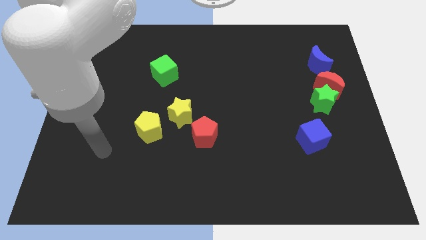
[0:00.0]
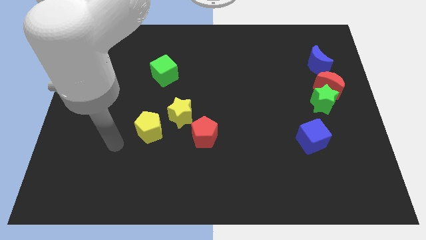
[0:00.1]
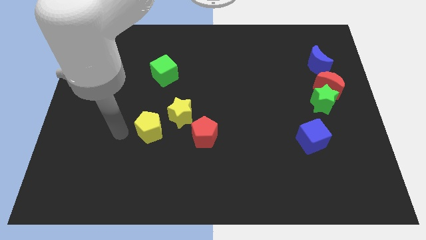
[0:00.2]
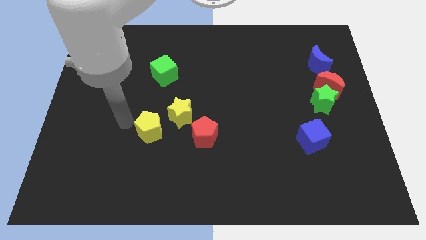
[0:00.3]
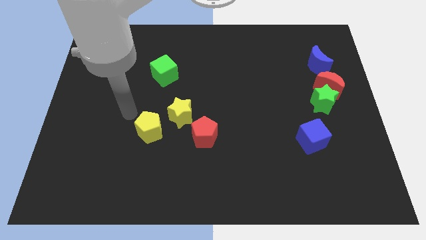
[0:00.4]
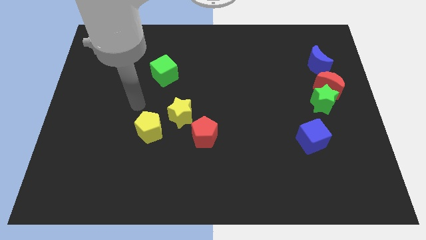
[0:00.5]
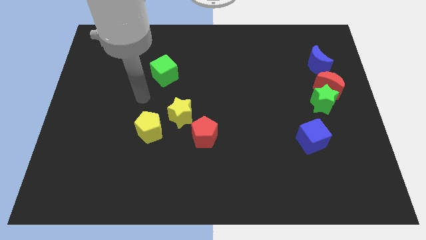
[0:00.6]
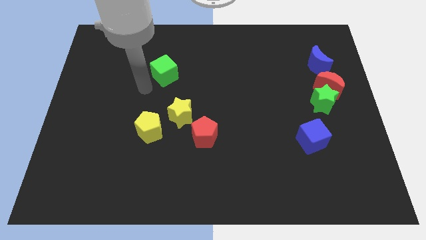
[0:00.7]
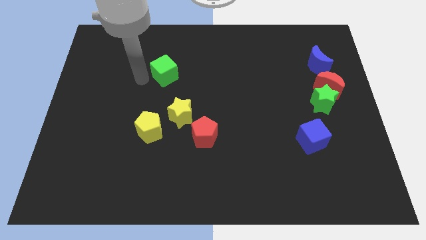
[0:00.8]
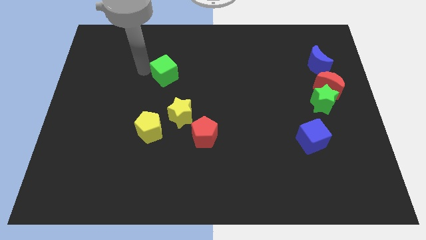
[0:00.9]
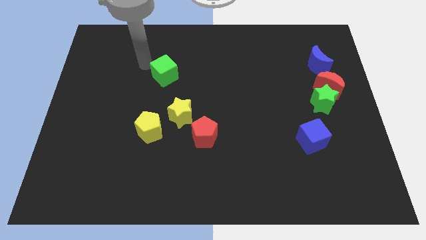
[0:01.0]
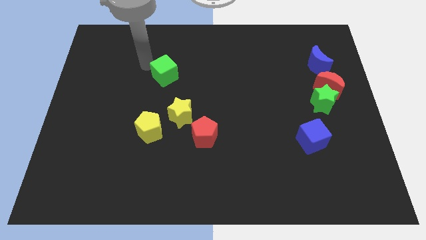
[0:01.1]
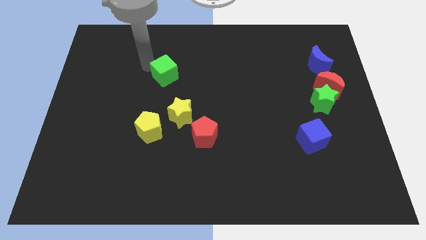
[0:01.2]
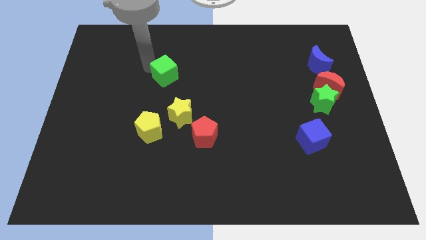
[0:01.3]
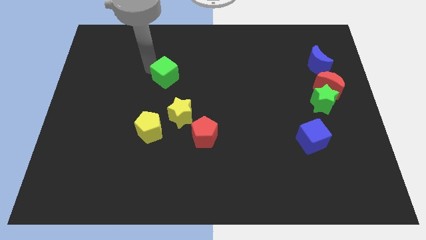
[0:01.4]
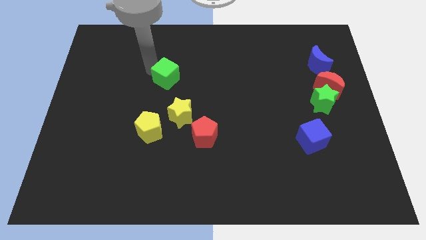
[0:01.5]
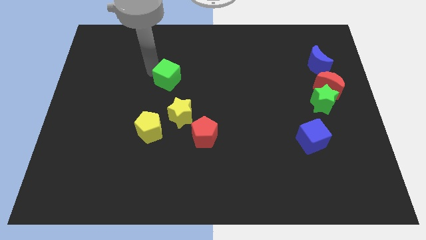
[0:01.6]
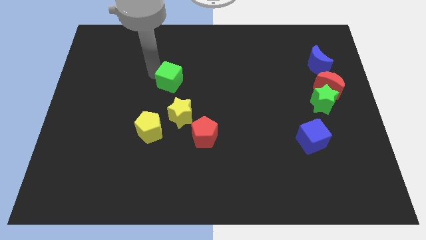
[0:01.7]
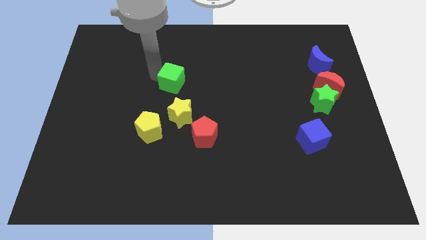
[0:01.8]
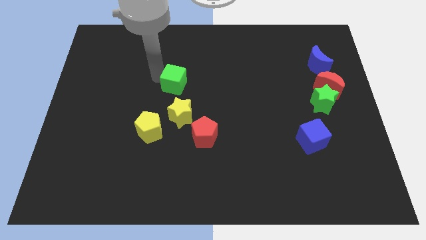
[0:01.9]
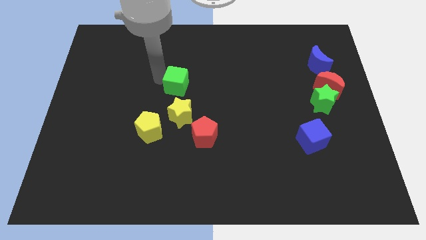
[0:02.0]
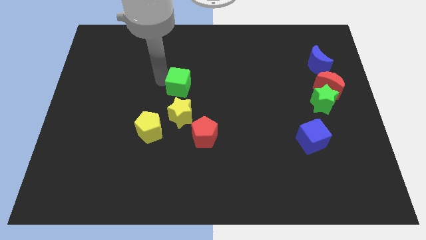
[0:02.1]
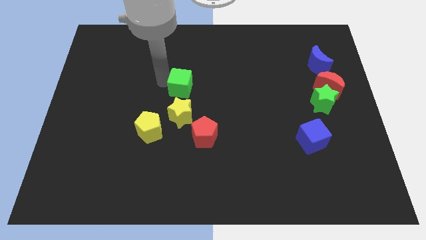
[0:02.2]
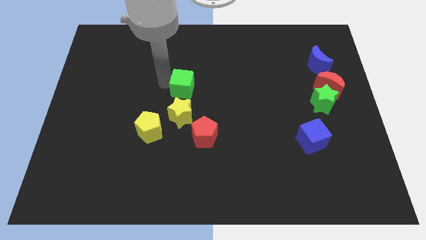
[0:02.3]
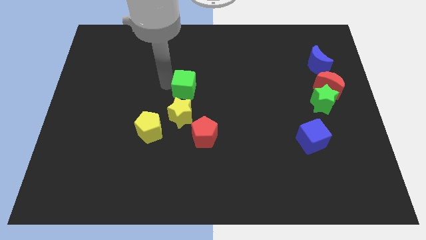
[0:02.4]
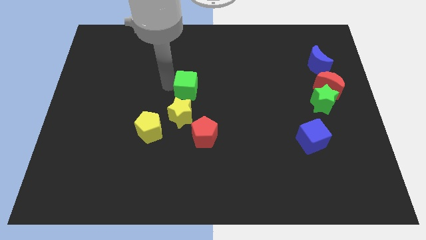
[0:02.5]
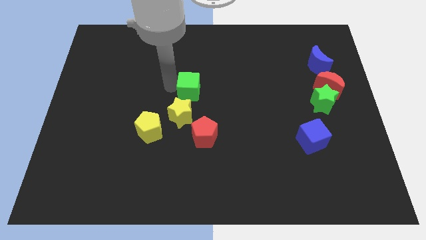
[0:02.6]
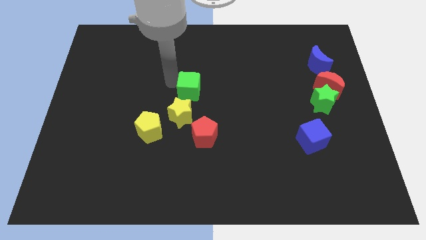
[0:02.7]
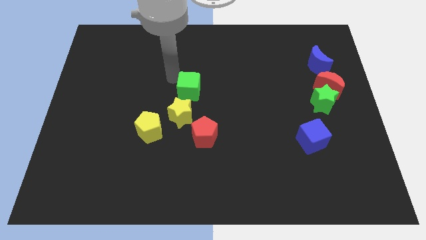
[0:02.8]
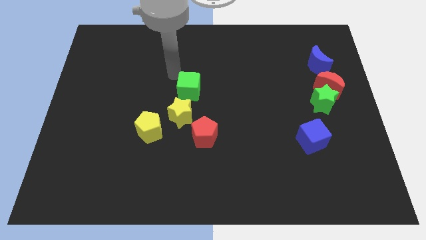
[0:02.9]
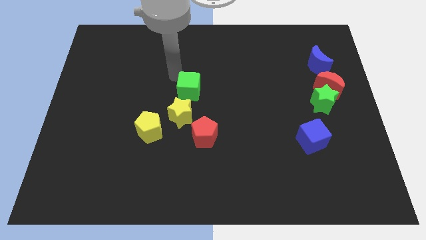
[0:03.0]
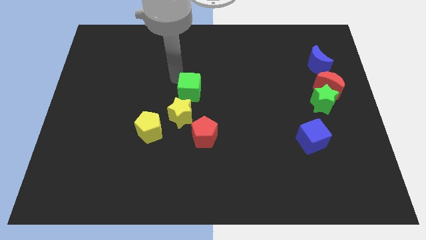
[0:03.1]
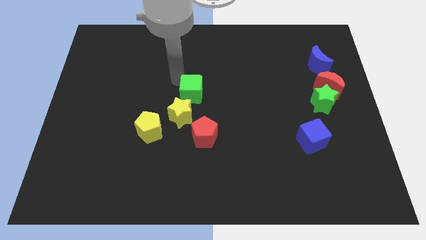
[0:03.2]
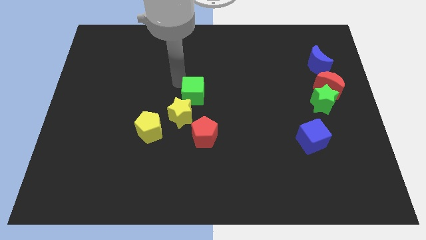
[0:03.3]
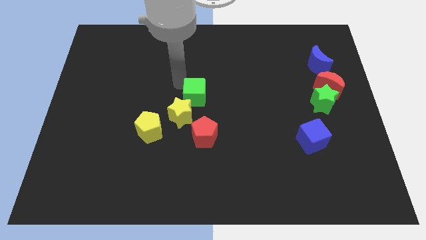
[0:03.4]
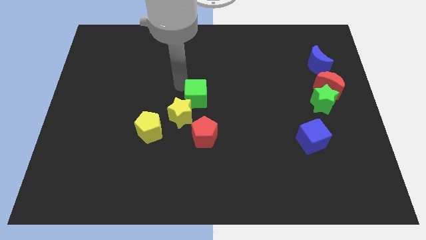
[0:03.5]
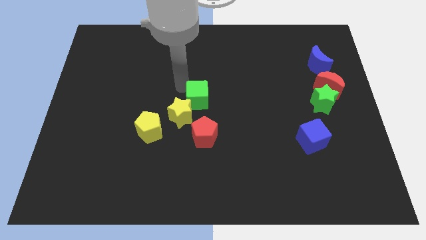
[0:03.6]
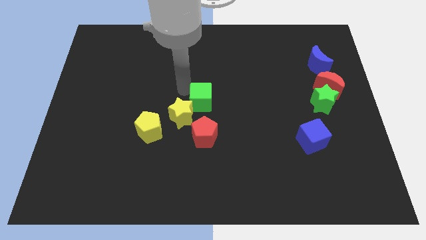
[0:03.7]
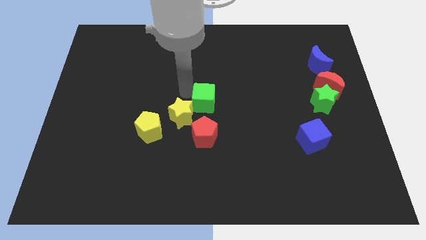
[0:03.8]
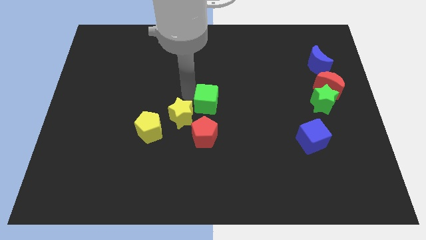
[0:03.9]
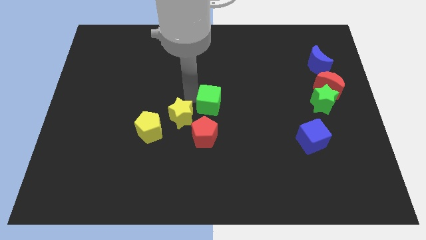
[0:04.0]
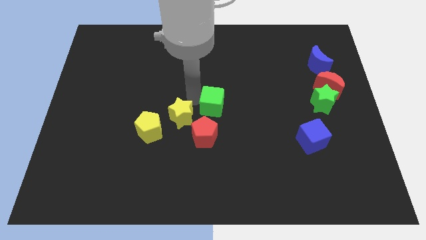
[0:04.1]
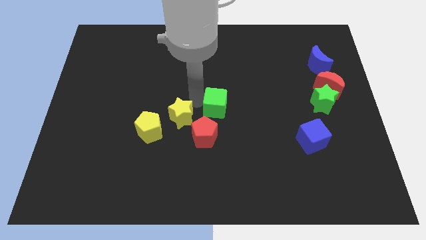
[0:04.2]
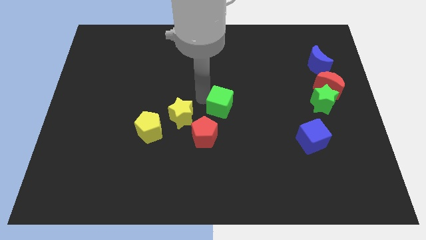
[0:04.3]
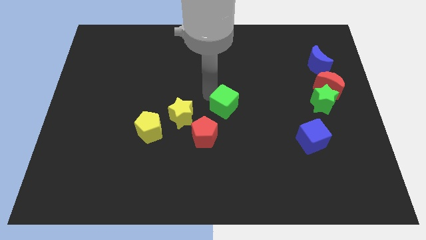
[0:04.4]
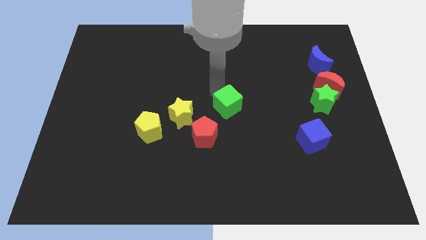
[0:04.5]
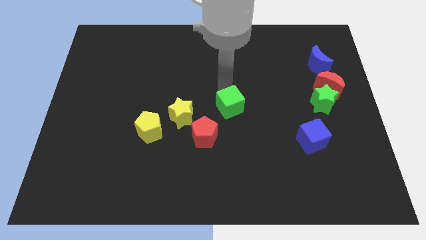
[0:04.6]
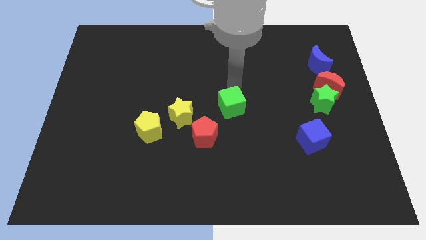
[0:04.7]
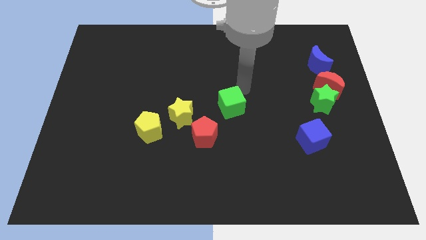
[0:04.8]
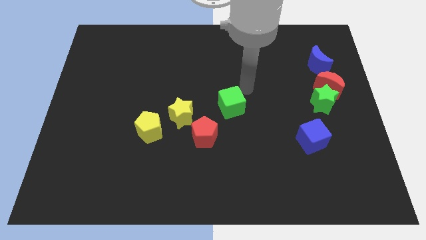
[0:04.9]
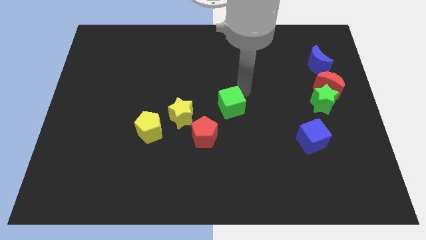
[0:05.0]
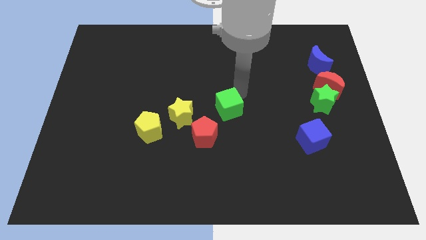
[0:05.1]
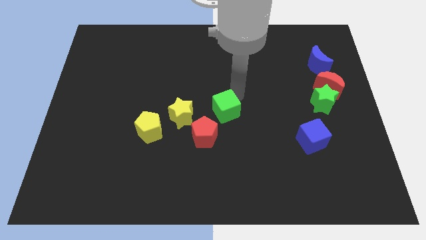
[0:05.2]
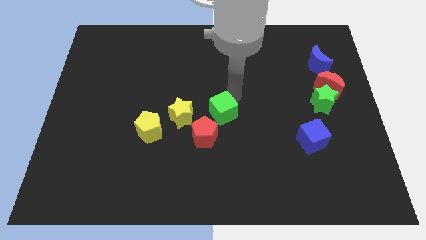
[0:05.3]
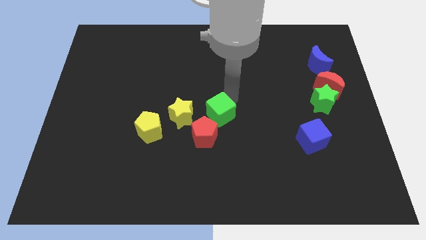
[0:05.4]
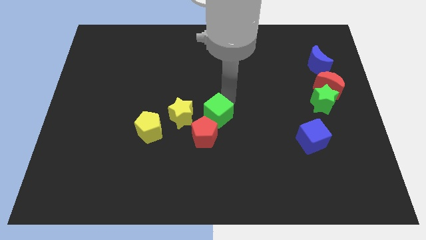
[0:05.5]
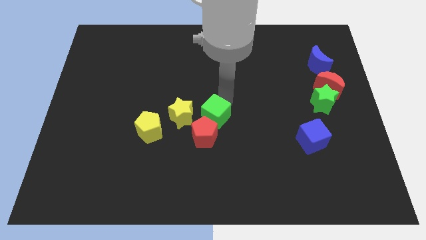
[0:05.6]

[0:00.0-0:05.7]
put the green cube towards the red pentagon

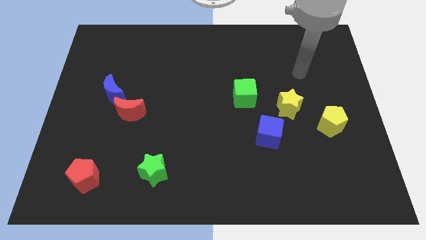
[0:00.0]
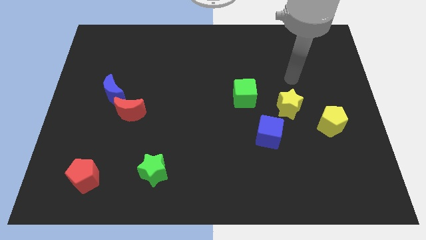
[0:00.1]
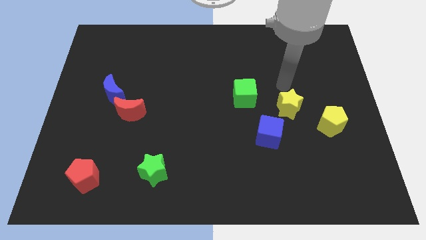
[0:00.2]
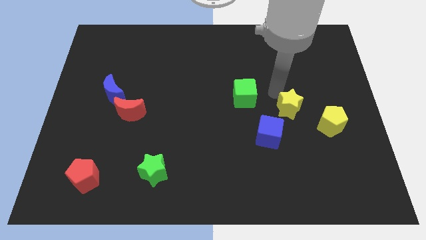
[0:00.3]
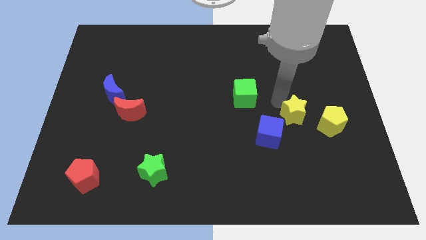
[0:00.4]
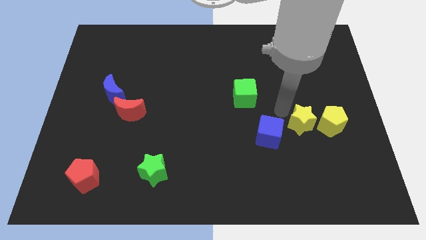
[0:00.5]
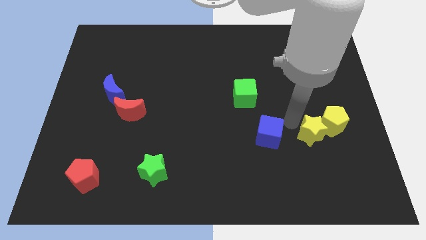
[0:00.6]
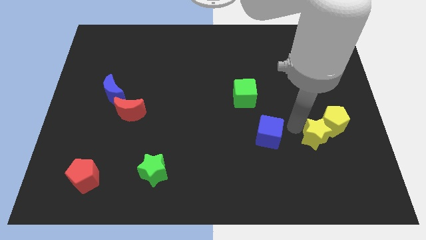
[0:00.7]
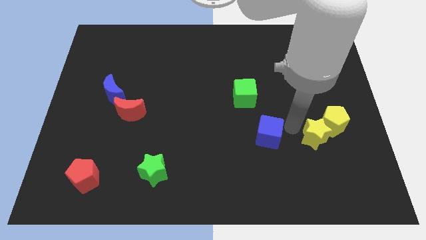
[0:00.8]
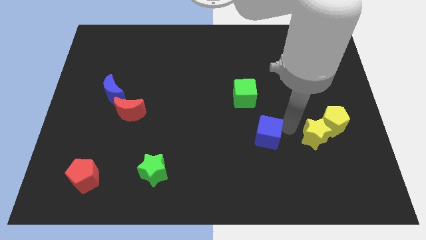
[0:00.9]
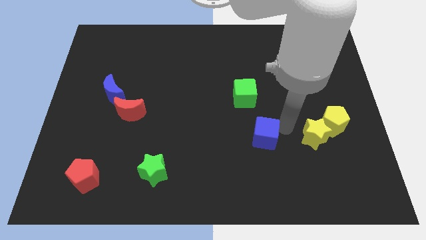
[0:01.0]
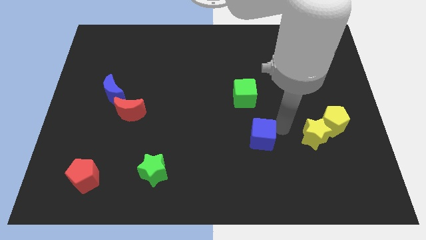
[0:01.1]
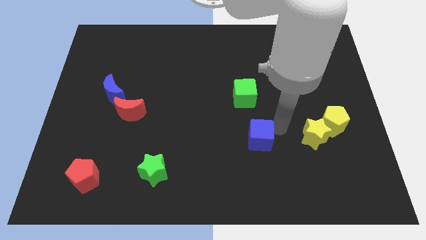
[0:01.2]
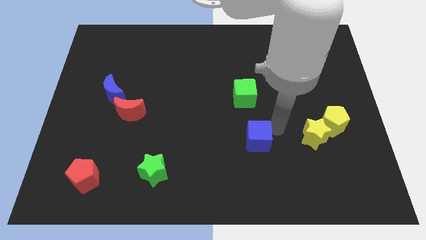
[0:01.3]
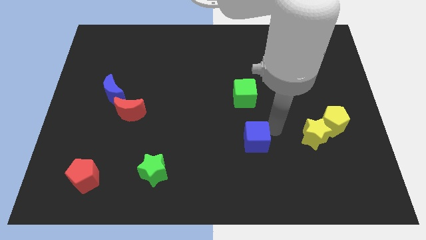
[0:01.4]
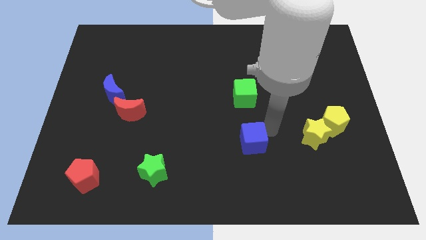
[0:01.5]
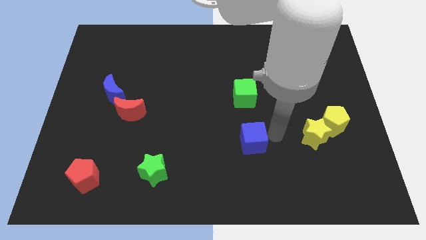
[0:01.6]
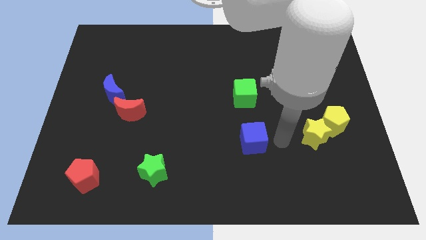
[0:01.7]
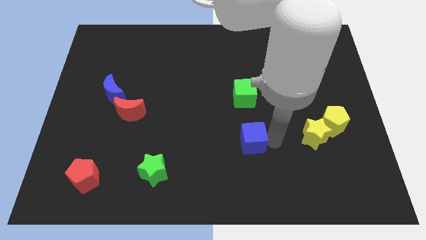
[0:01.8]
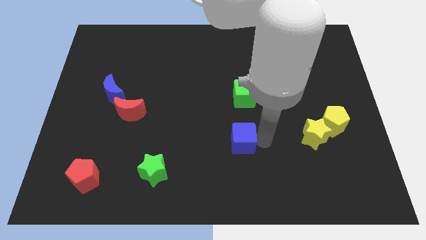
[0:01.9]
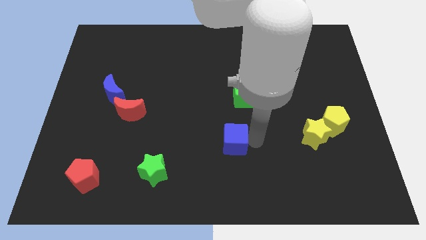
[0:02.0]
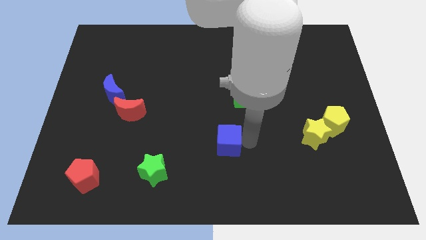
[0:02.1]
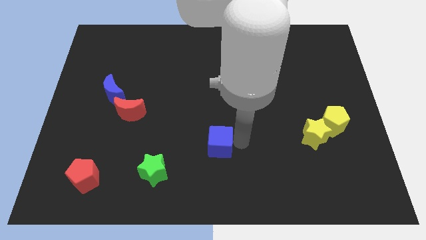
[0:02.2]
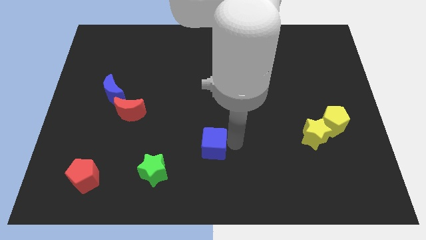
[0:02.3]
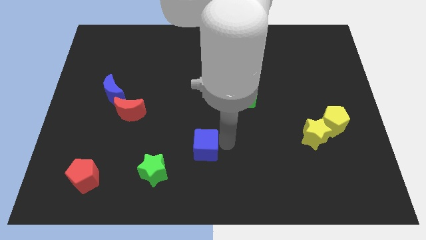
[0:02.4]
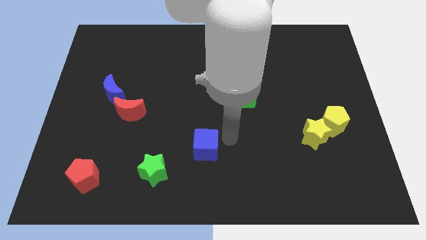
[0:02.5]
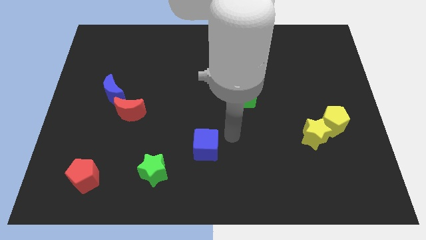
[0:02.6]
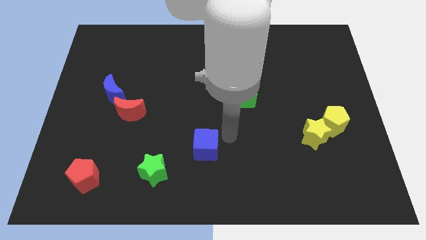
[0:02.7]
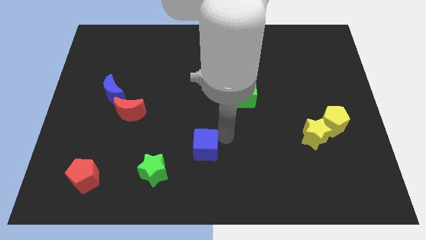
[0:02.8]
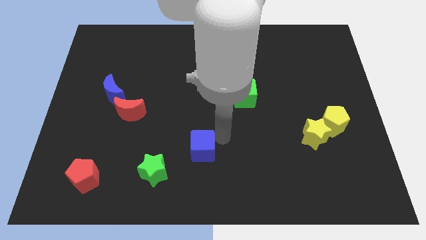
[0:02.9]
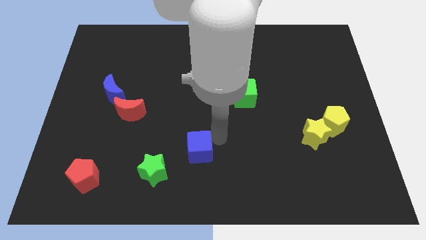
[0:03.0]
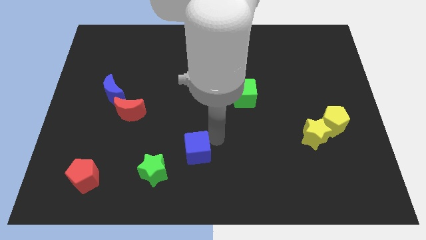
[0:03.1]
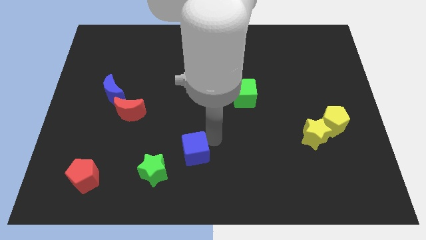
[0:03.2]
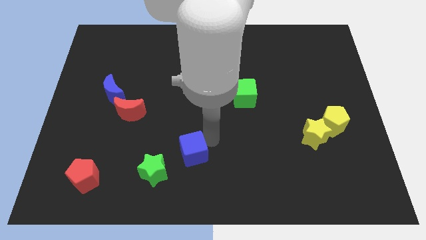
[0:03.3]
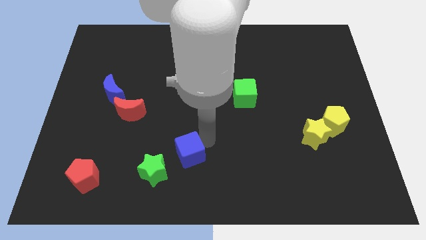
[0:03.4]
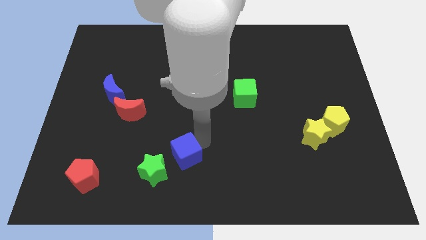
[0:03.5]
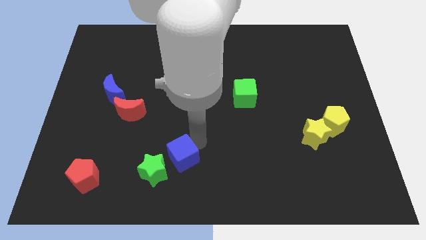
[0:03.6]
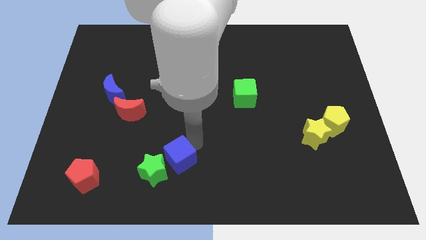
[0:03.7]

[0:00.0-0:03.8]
move the blue cube close to the green star
